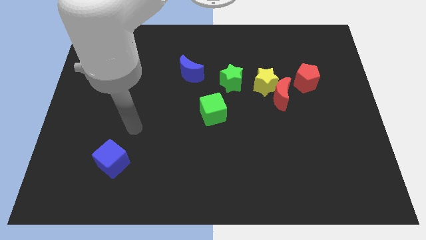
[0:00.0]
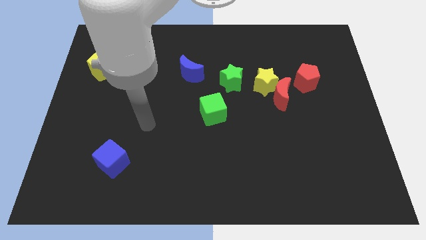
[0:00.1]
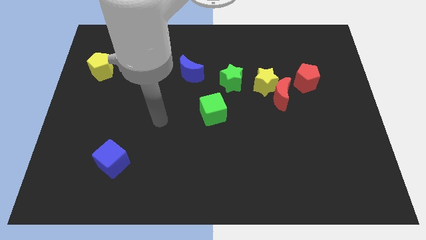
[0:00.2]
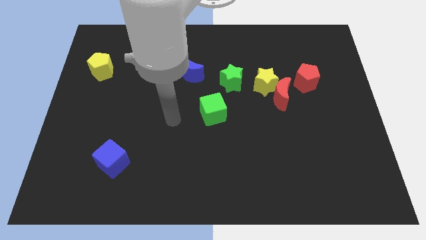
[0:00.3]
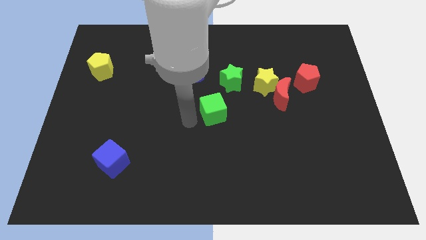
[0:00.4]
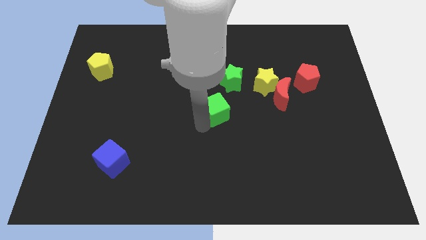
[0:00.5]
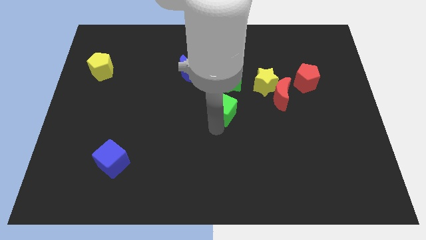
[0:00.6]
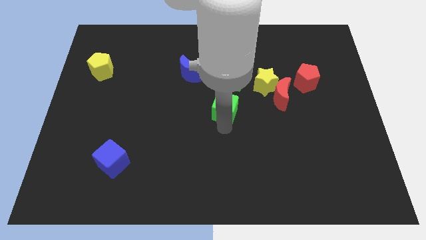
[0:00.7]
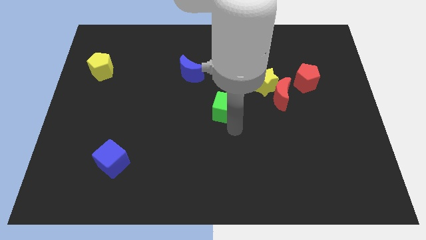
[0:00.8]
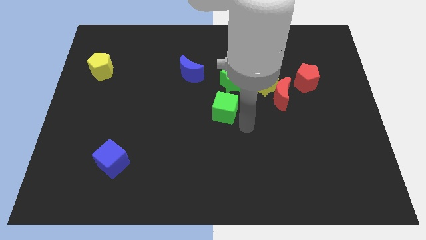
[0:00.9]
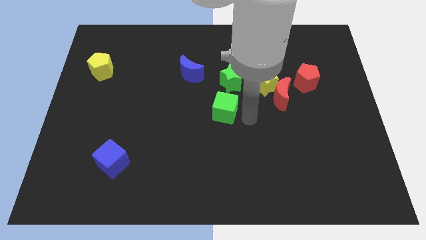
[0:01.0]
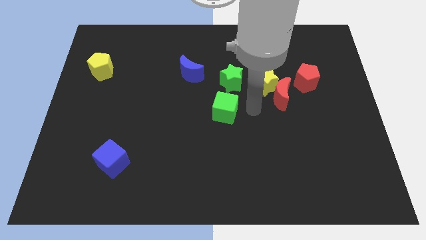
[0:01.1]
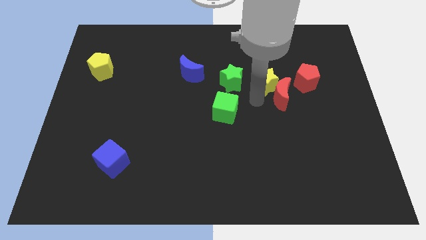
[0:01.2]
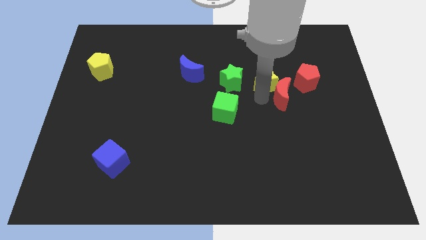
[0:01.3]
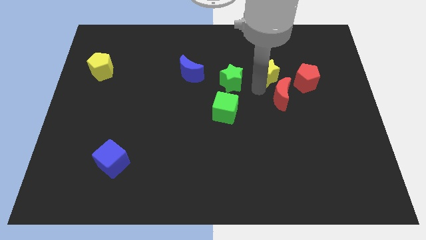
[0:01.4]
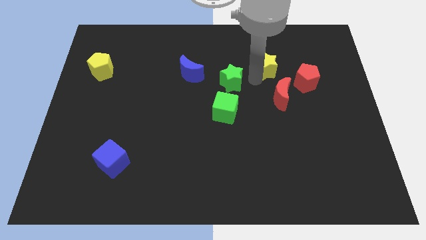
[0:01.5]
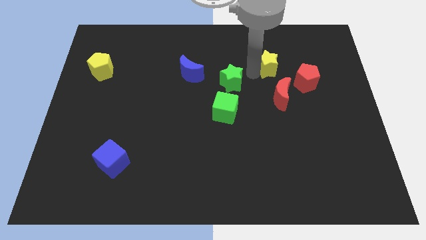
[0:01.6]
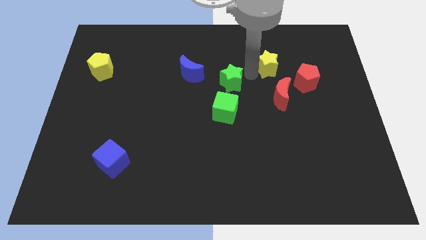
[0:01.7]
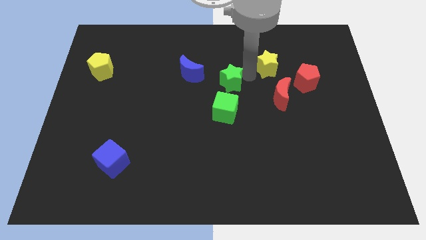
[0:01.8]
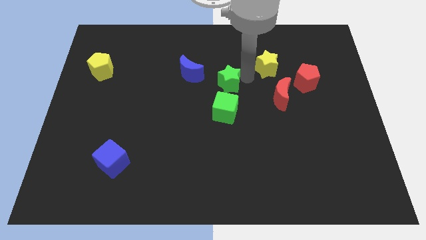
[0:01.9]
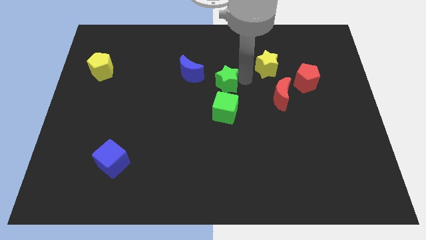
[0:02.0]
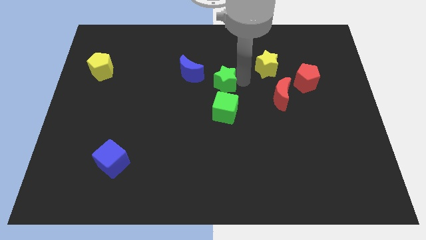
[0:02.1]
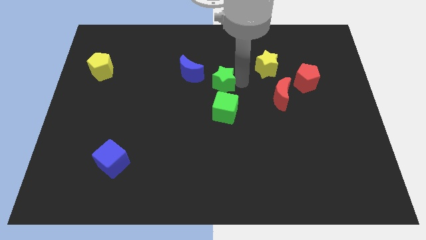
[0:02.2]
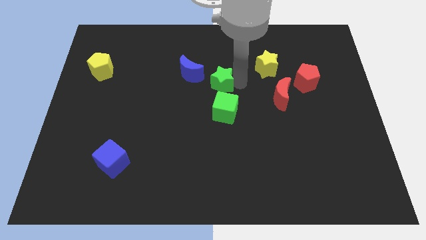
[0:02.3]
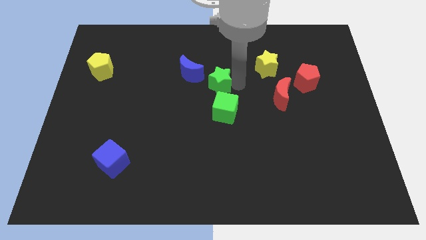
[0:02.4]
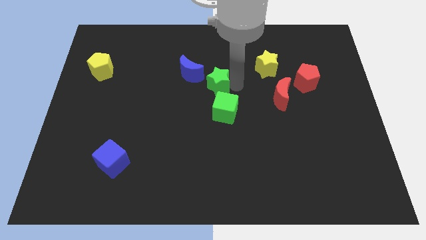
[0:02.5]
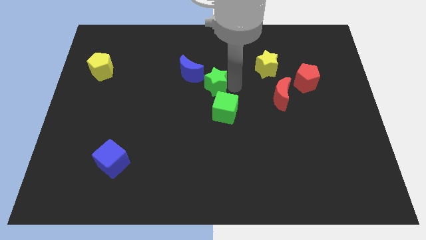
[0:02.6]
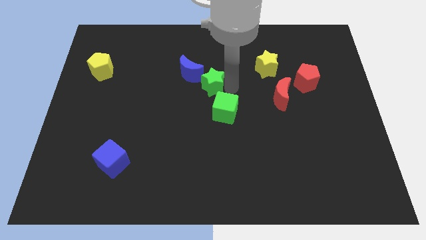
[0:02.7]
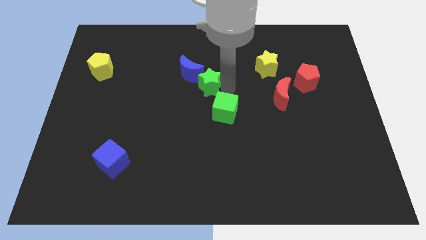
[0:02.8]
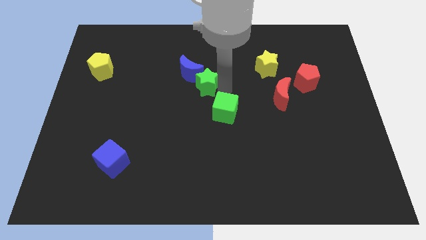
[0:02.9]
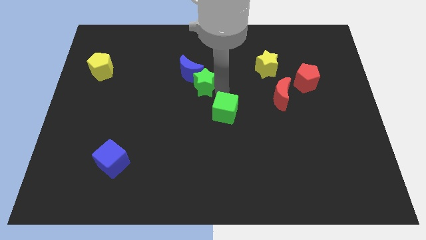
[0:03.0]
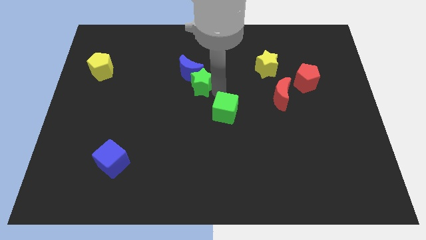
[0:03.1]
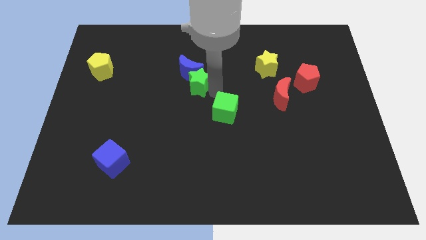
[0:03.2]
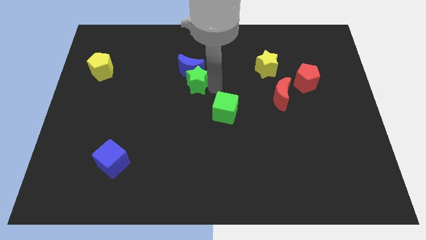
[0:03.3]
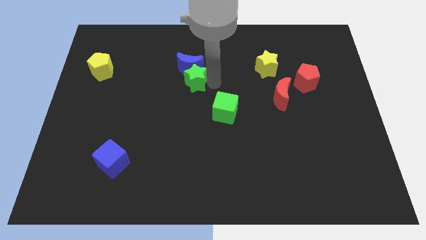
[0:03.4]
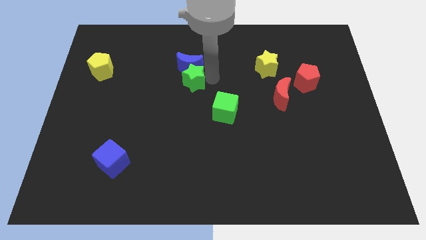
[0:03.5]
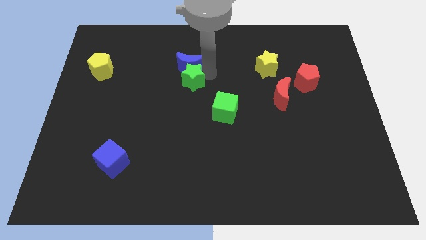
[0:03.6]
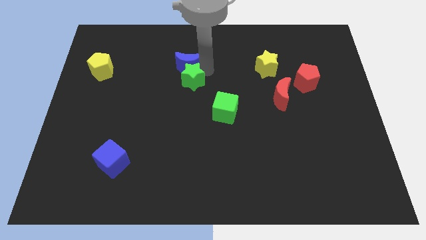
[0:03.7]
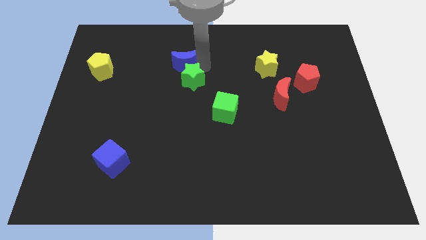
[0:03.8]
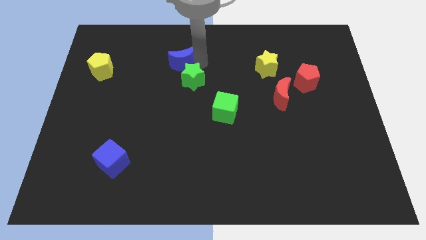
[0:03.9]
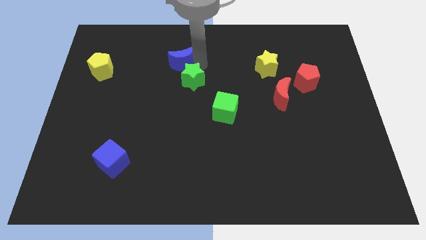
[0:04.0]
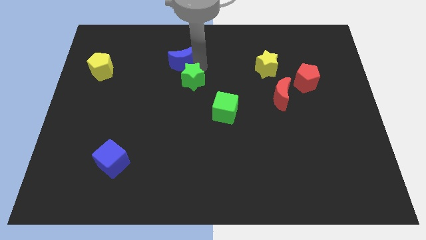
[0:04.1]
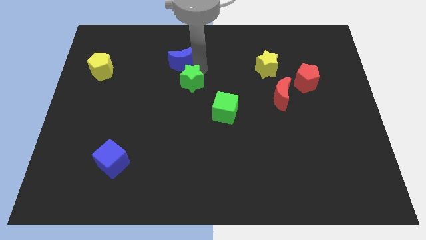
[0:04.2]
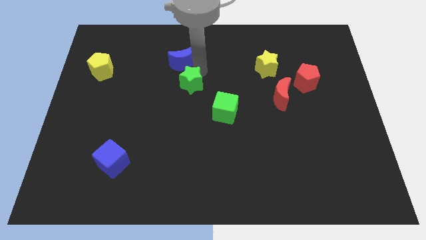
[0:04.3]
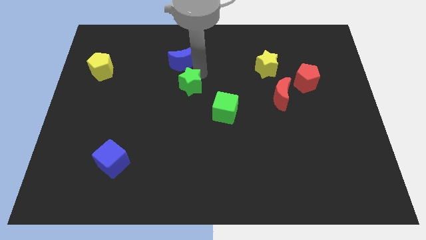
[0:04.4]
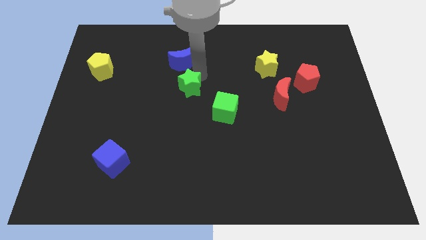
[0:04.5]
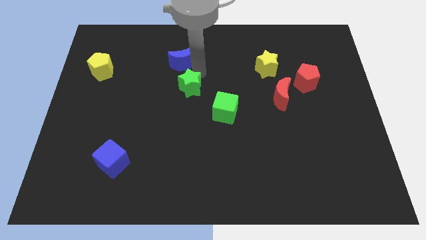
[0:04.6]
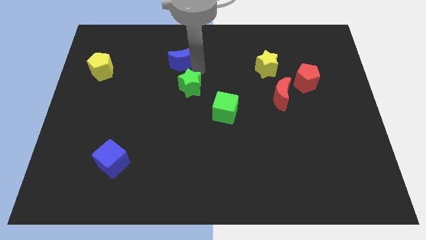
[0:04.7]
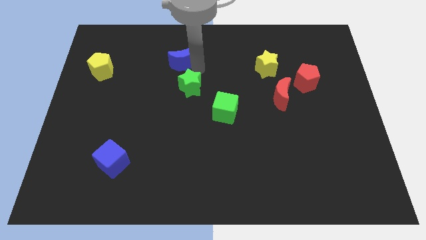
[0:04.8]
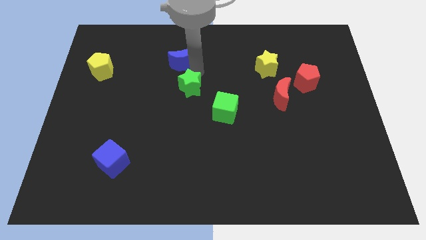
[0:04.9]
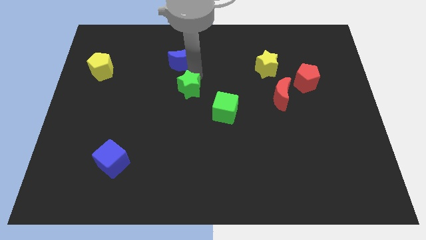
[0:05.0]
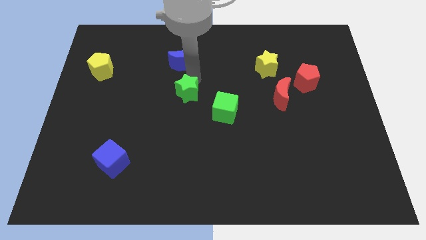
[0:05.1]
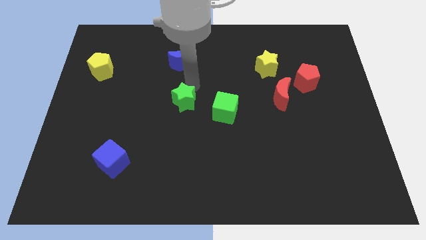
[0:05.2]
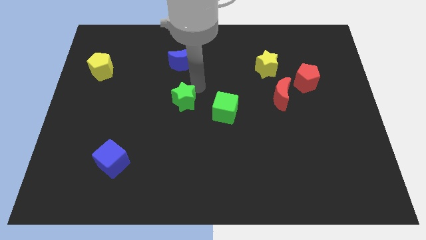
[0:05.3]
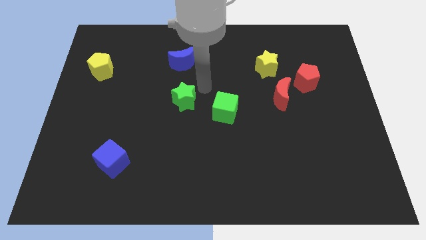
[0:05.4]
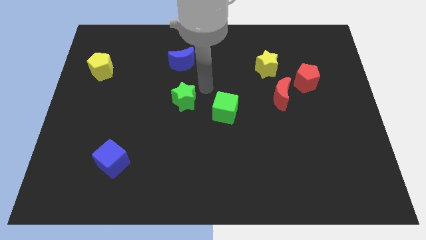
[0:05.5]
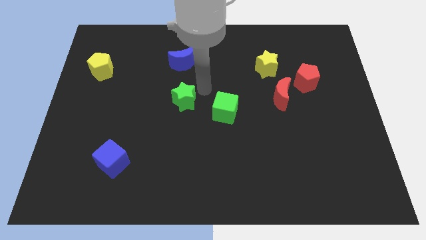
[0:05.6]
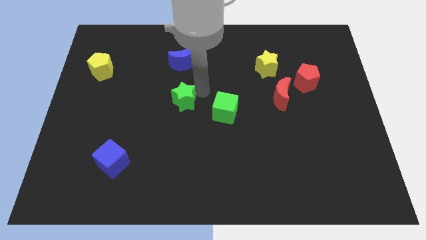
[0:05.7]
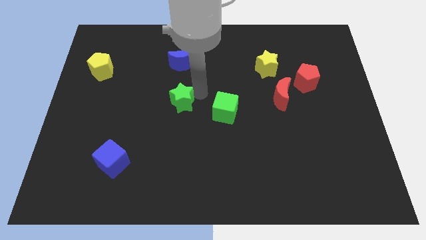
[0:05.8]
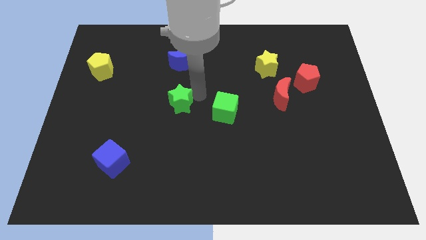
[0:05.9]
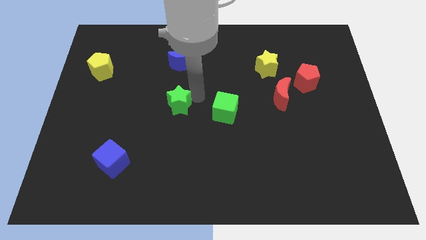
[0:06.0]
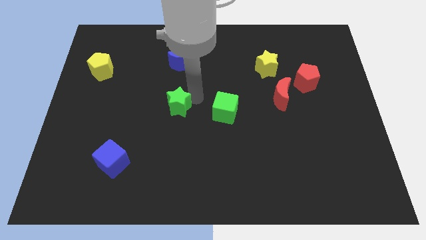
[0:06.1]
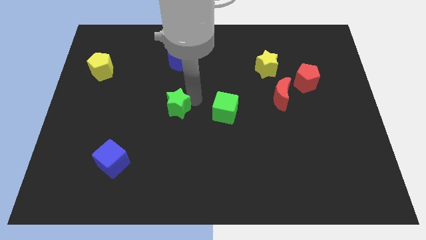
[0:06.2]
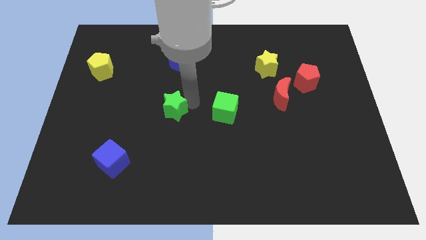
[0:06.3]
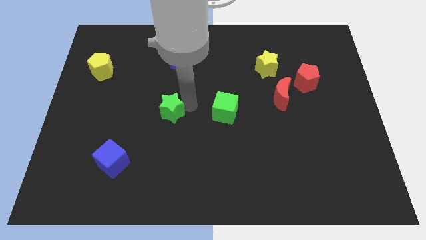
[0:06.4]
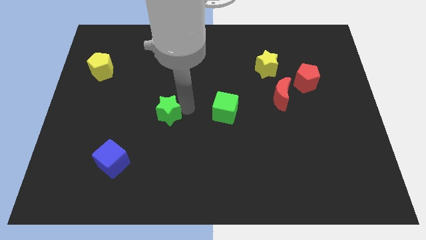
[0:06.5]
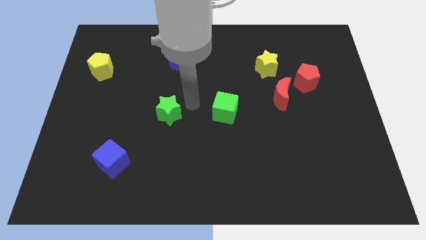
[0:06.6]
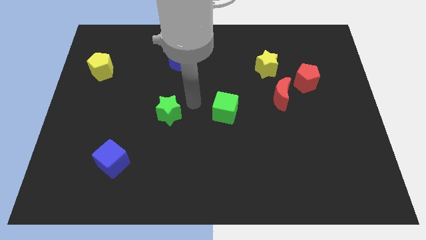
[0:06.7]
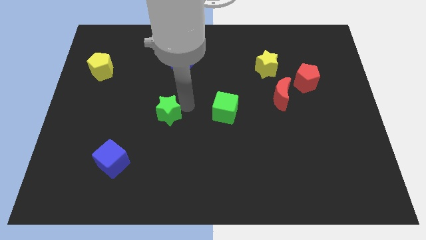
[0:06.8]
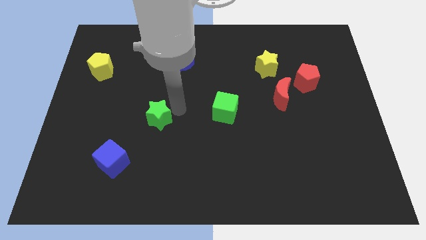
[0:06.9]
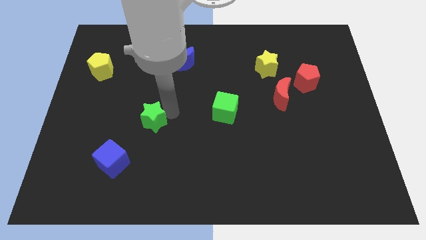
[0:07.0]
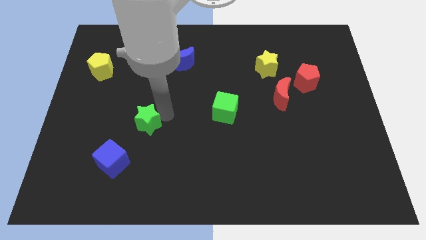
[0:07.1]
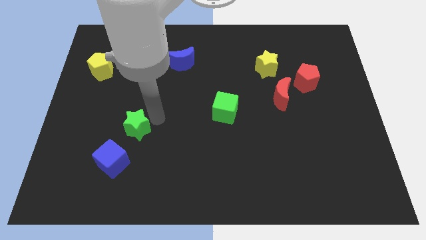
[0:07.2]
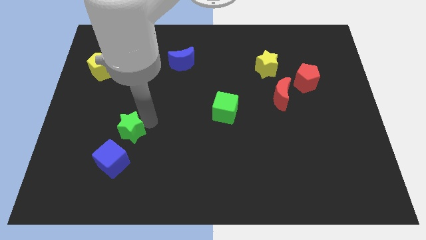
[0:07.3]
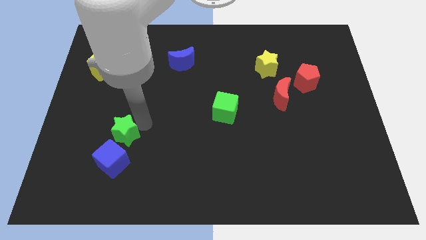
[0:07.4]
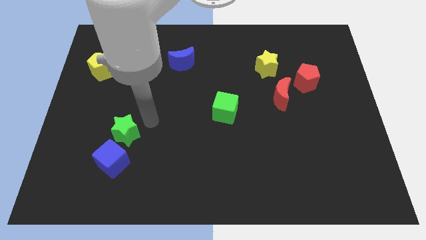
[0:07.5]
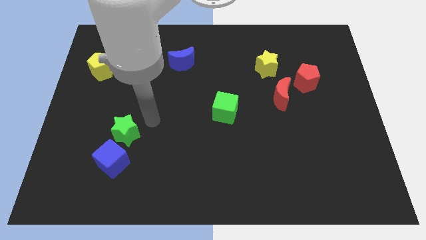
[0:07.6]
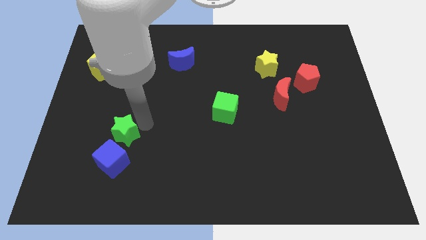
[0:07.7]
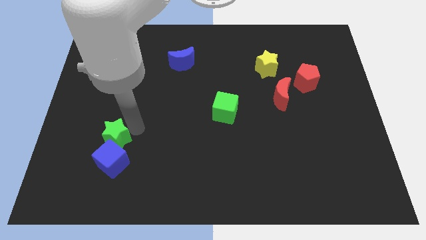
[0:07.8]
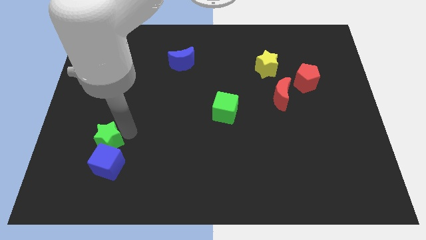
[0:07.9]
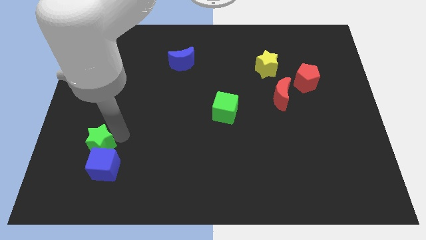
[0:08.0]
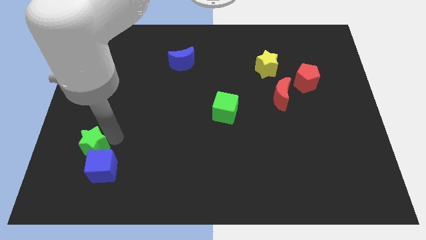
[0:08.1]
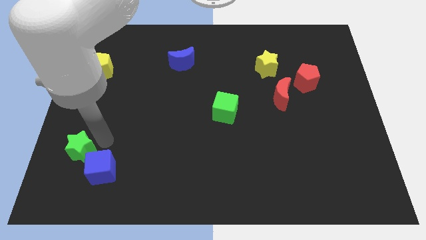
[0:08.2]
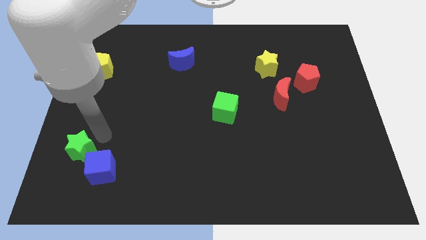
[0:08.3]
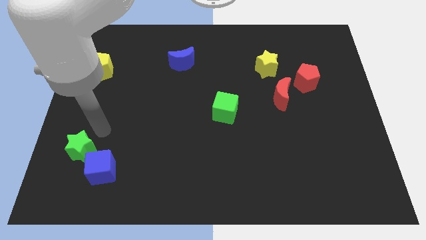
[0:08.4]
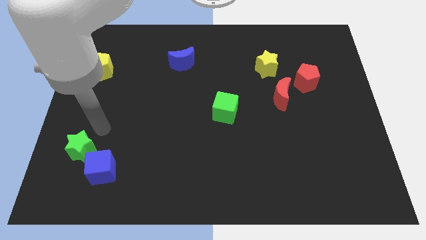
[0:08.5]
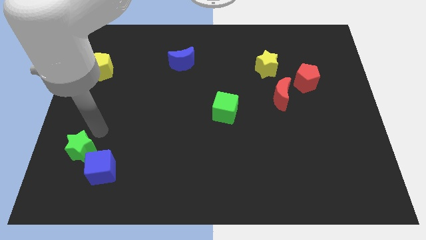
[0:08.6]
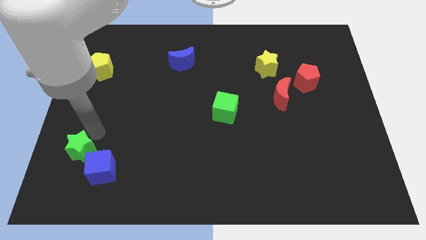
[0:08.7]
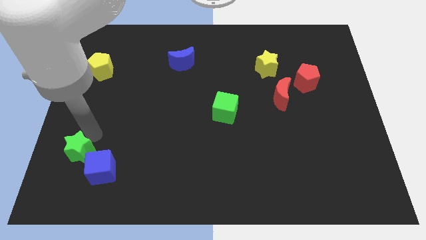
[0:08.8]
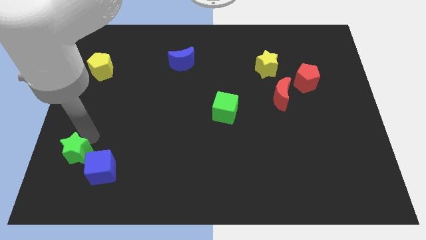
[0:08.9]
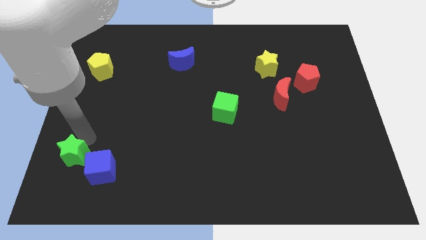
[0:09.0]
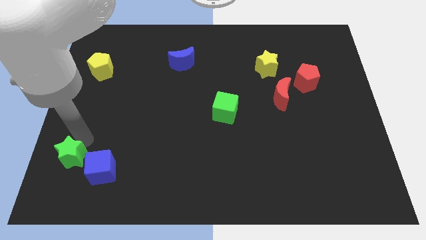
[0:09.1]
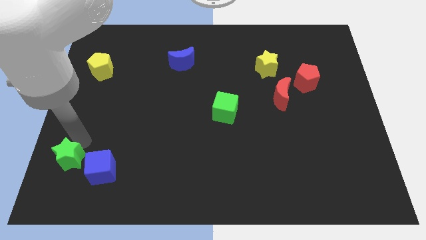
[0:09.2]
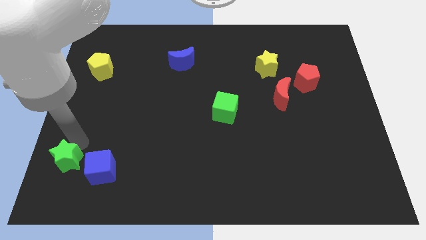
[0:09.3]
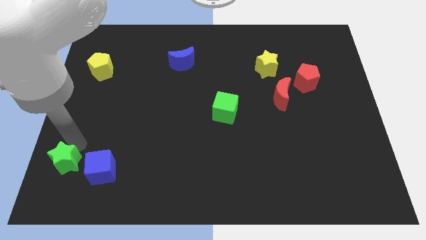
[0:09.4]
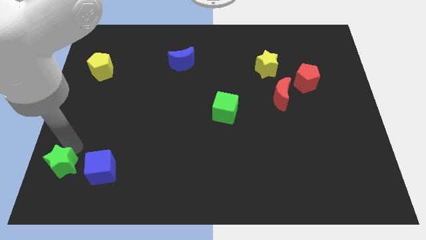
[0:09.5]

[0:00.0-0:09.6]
push the green star to the bottom left of the board
